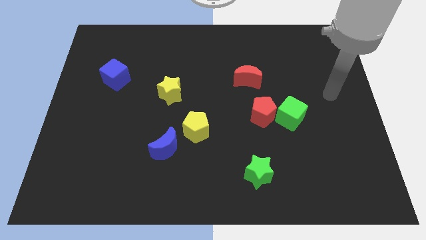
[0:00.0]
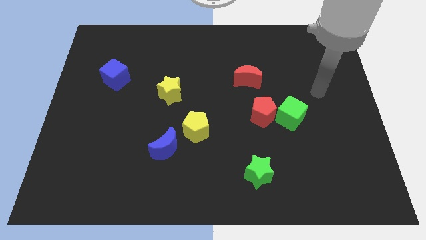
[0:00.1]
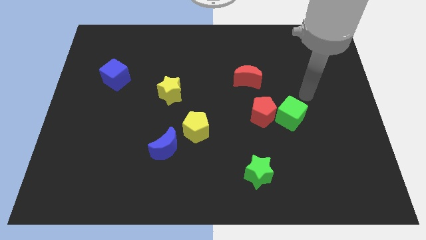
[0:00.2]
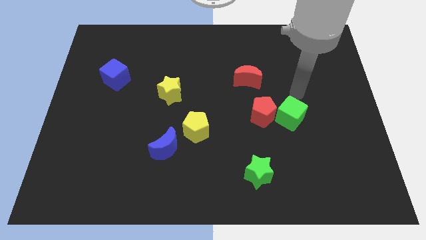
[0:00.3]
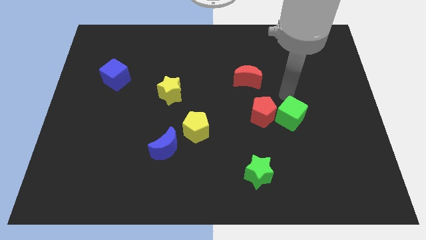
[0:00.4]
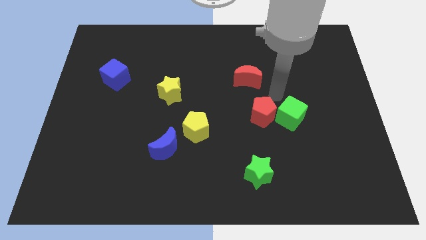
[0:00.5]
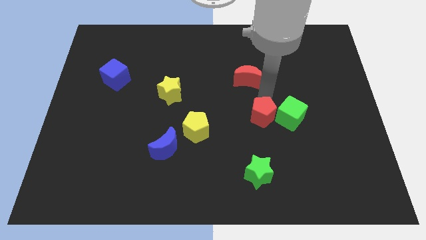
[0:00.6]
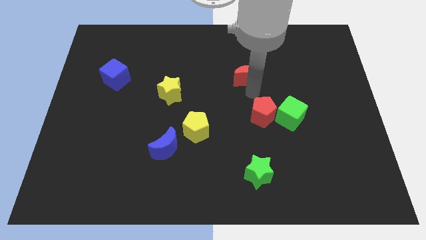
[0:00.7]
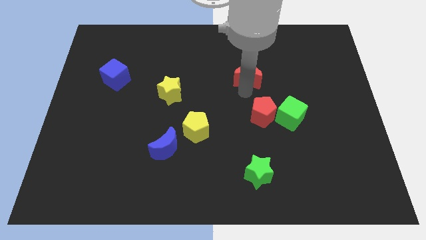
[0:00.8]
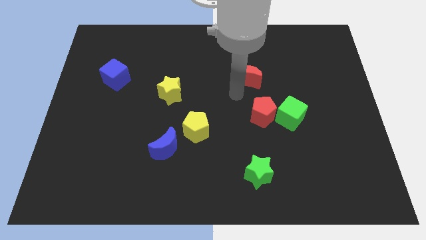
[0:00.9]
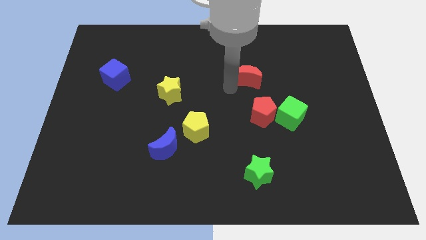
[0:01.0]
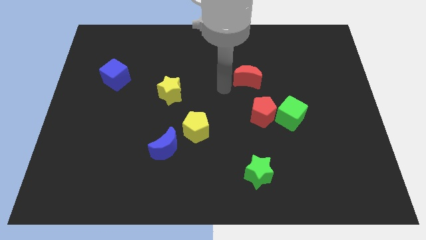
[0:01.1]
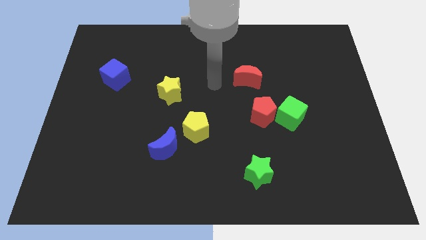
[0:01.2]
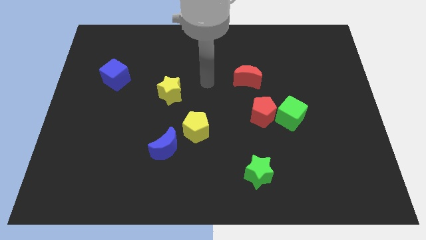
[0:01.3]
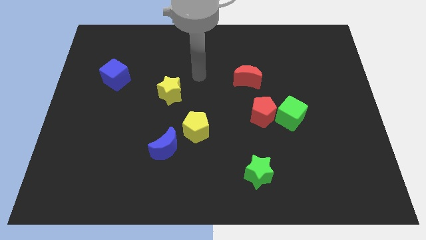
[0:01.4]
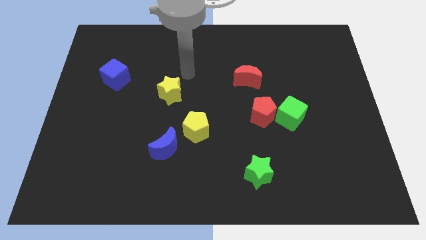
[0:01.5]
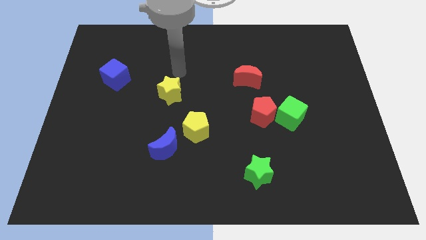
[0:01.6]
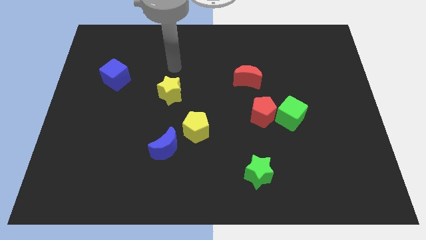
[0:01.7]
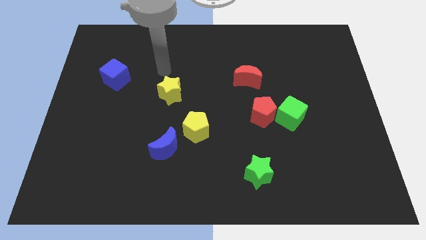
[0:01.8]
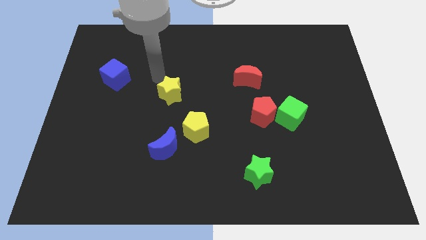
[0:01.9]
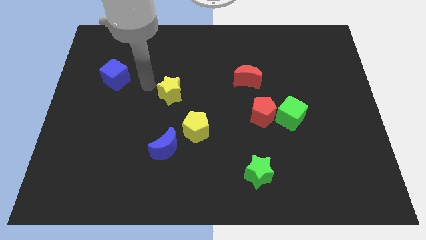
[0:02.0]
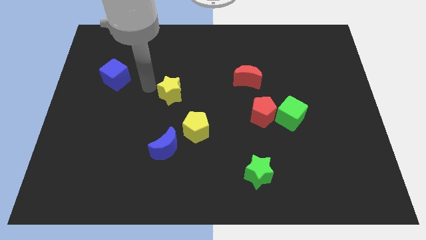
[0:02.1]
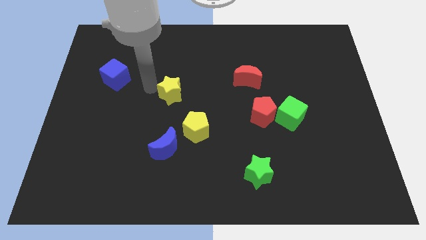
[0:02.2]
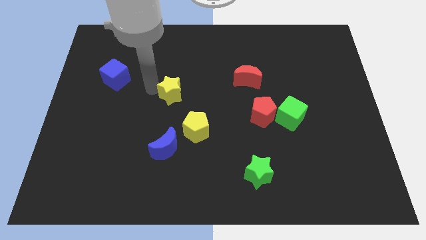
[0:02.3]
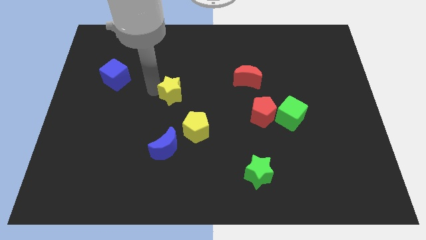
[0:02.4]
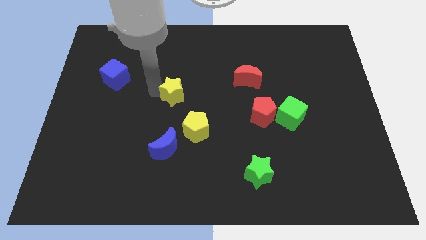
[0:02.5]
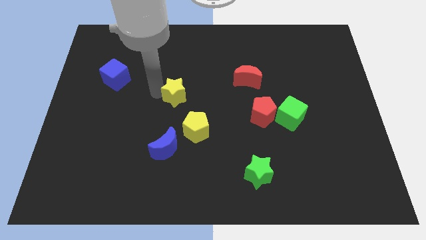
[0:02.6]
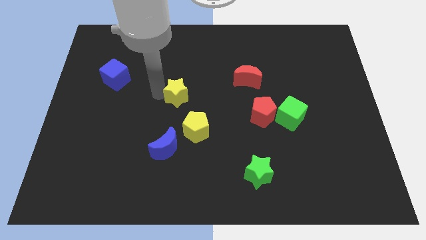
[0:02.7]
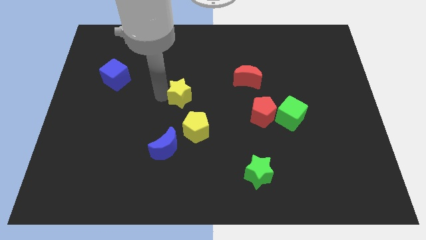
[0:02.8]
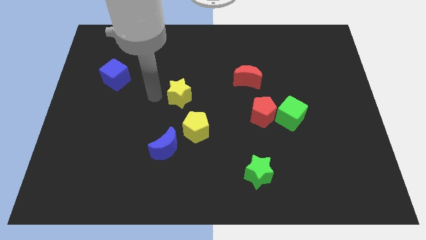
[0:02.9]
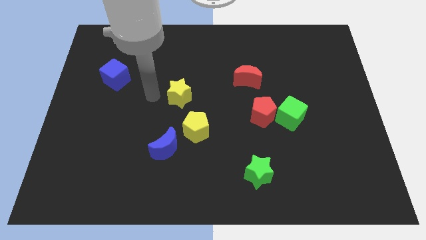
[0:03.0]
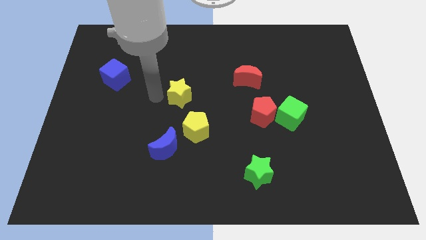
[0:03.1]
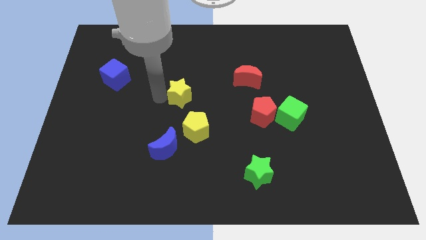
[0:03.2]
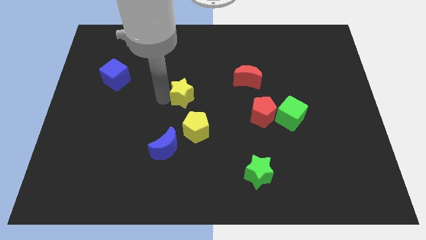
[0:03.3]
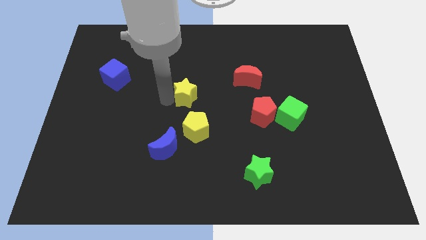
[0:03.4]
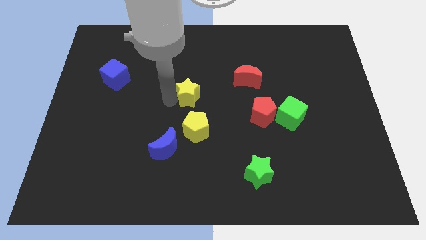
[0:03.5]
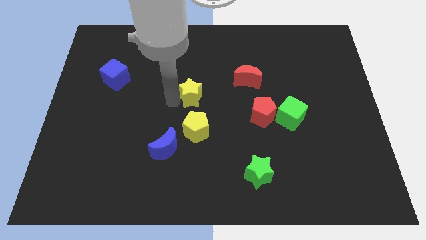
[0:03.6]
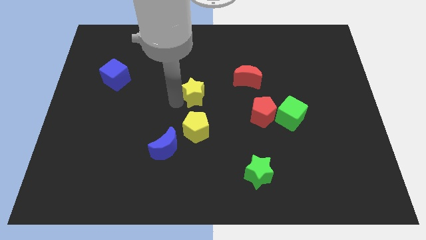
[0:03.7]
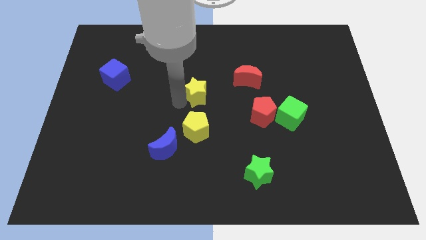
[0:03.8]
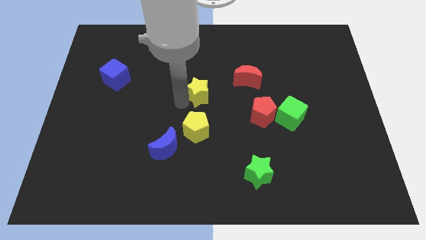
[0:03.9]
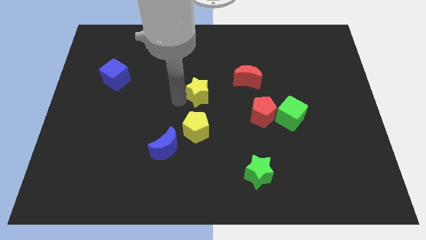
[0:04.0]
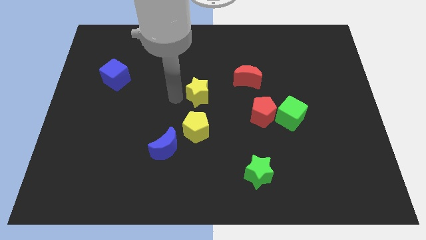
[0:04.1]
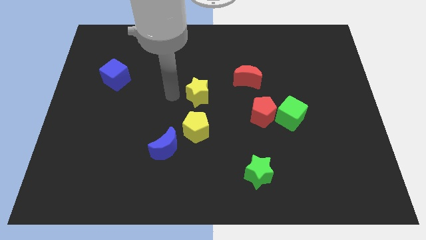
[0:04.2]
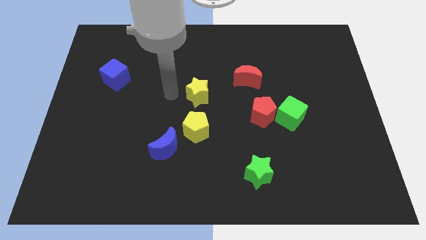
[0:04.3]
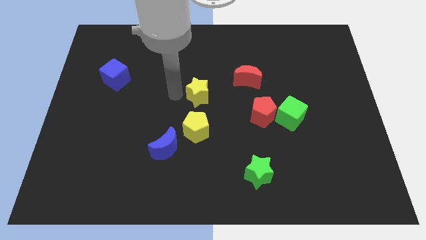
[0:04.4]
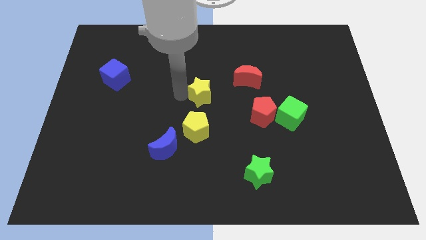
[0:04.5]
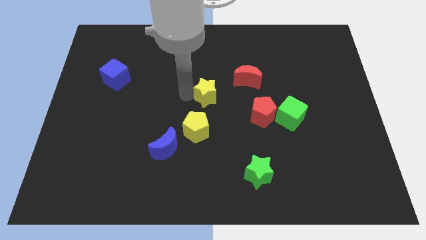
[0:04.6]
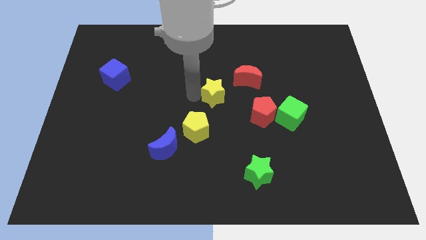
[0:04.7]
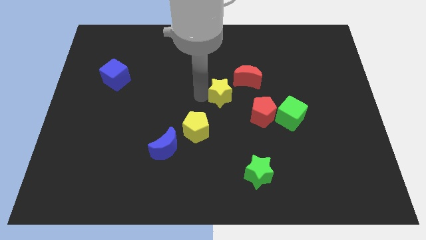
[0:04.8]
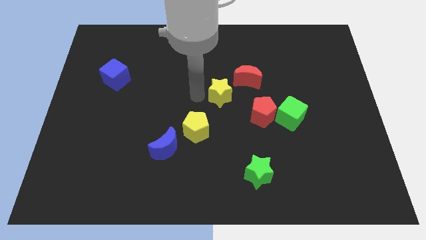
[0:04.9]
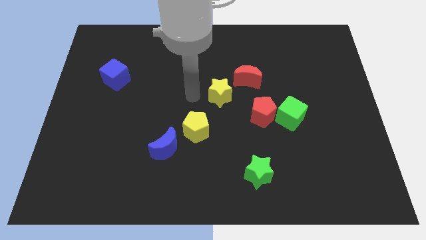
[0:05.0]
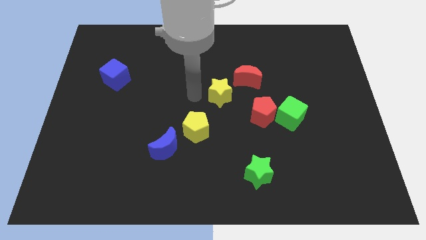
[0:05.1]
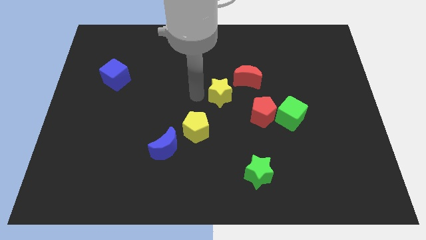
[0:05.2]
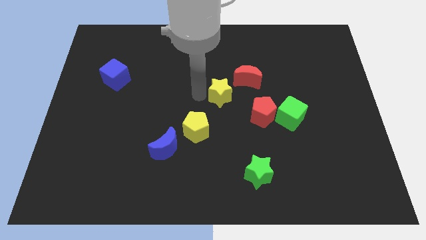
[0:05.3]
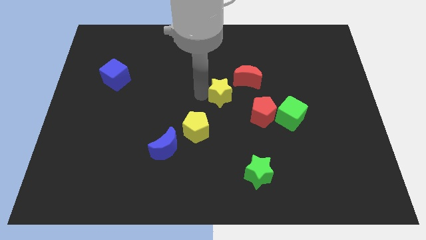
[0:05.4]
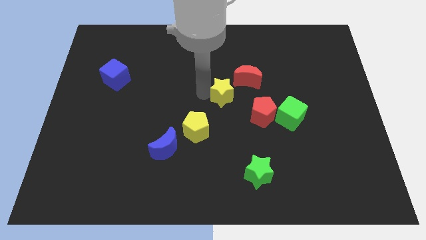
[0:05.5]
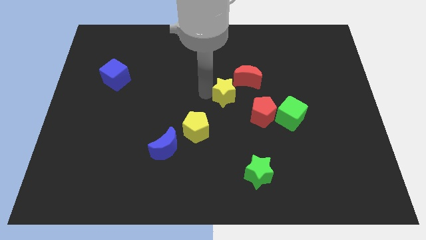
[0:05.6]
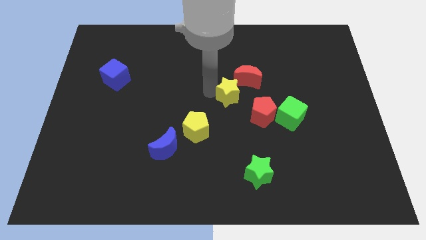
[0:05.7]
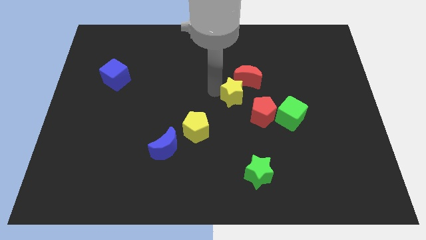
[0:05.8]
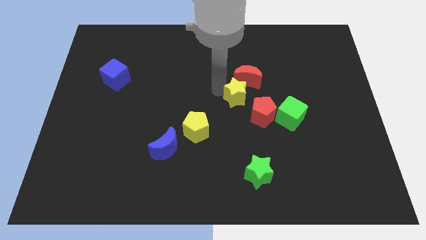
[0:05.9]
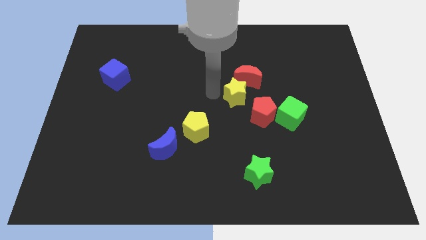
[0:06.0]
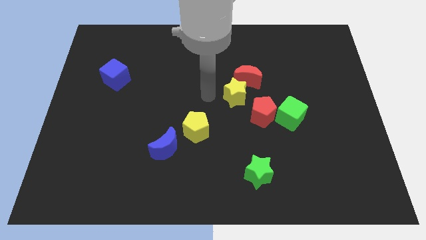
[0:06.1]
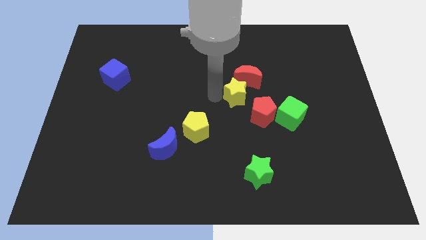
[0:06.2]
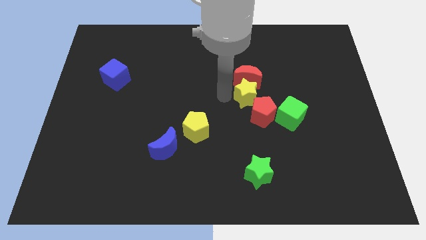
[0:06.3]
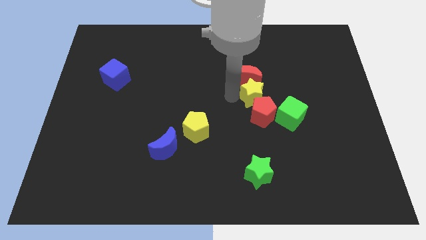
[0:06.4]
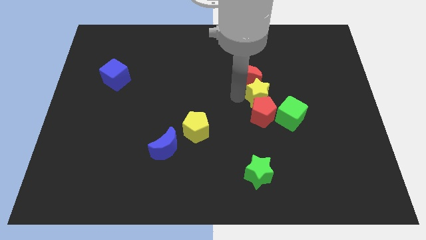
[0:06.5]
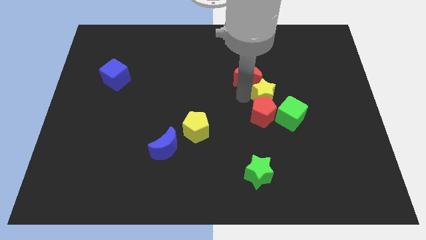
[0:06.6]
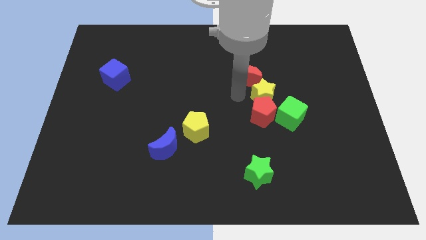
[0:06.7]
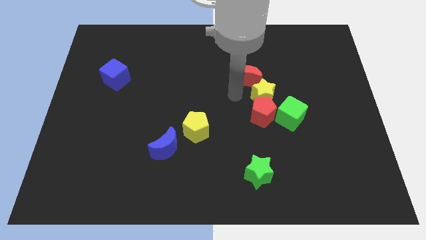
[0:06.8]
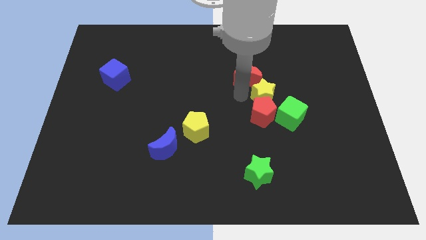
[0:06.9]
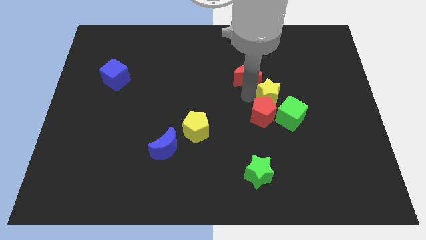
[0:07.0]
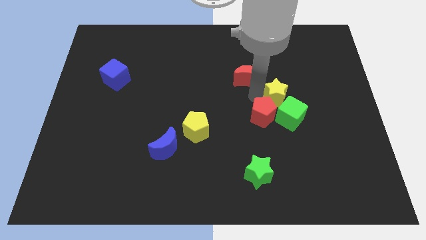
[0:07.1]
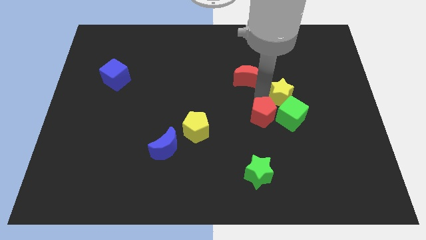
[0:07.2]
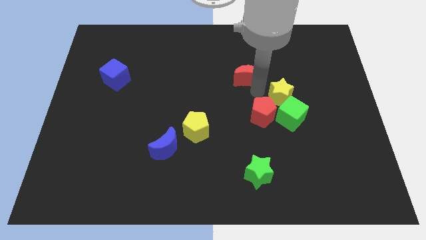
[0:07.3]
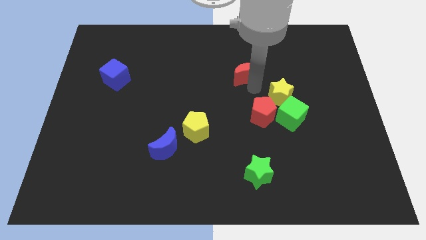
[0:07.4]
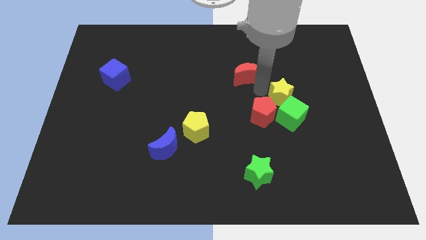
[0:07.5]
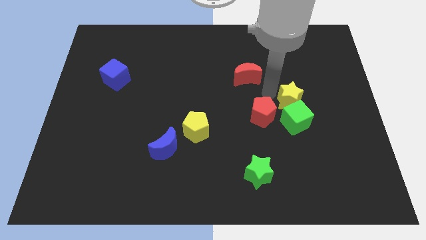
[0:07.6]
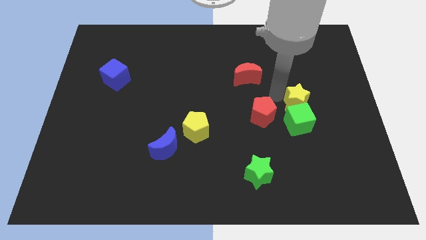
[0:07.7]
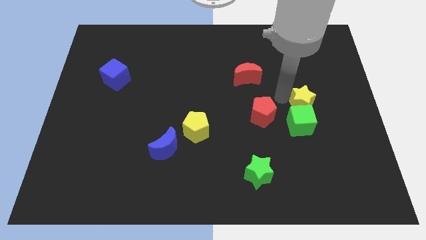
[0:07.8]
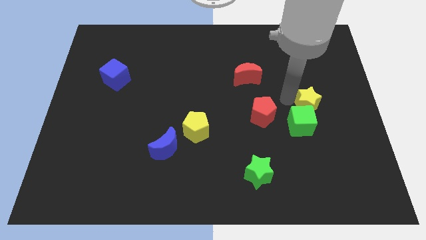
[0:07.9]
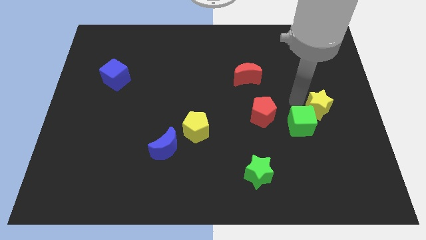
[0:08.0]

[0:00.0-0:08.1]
push the yellow star to the right of the green cube
